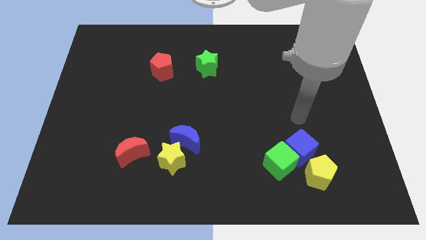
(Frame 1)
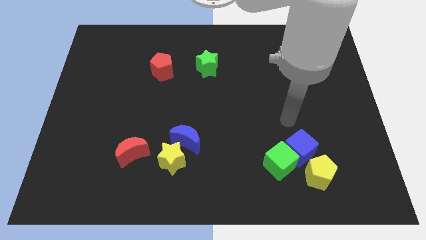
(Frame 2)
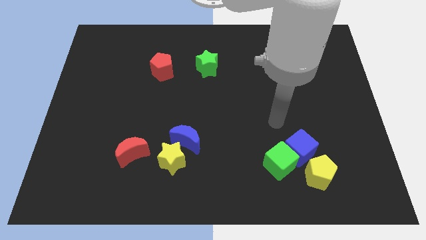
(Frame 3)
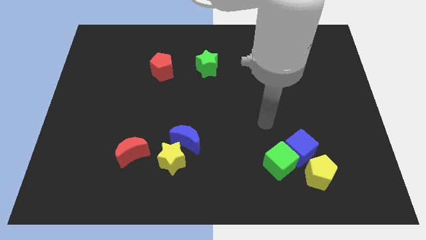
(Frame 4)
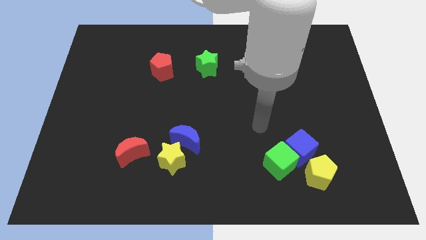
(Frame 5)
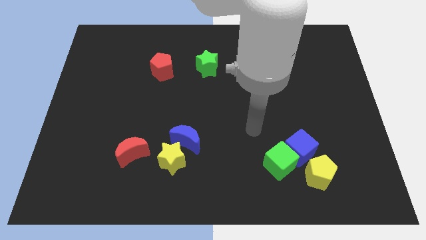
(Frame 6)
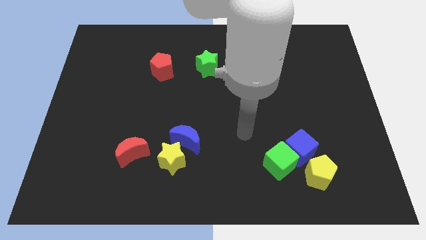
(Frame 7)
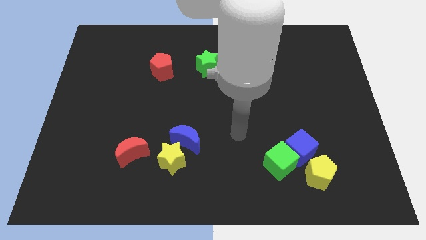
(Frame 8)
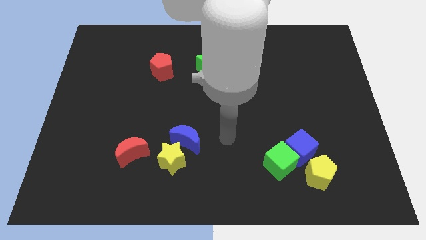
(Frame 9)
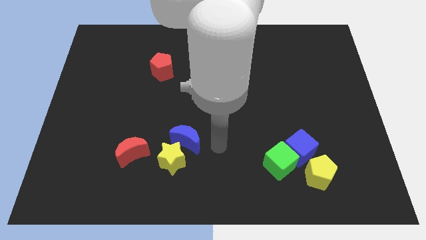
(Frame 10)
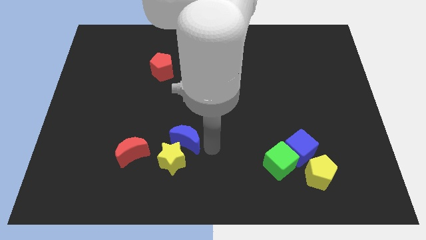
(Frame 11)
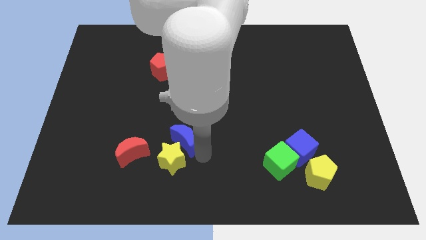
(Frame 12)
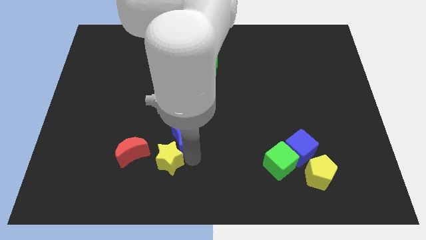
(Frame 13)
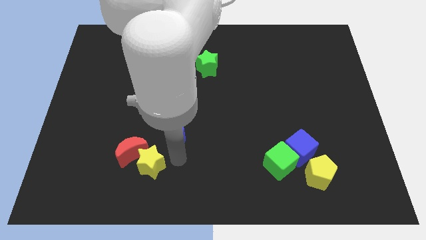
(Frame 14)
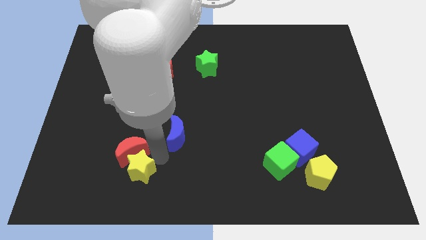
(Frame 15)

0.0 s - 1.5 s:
pull the blue moon apart from the yellow star

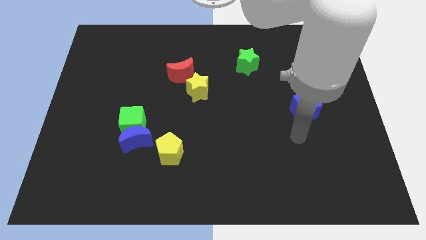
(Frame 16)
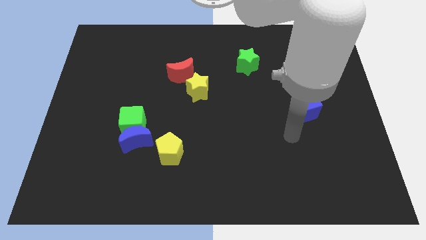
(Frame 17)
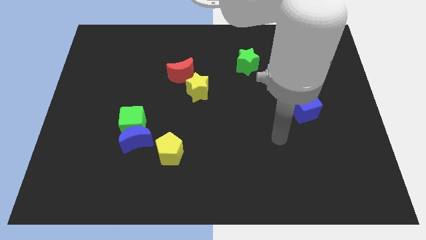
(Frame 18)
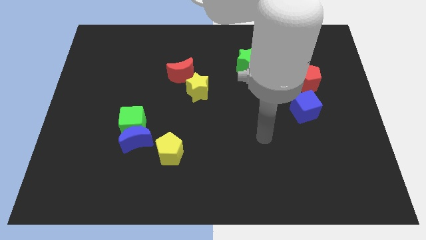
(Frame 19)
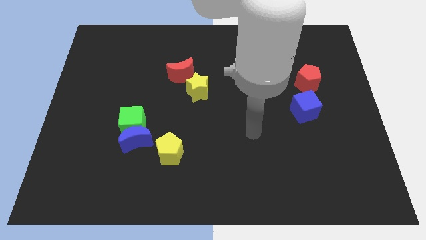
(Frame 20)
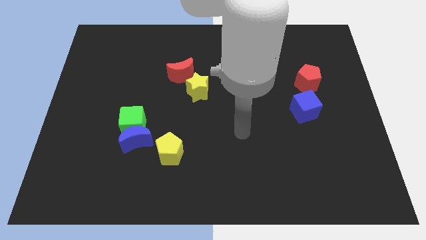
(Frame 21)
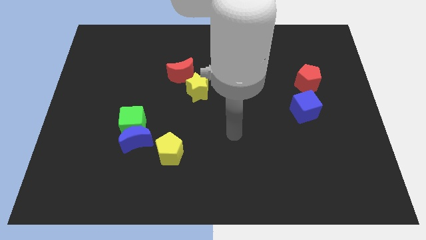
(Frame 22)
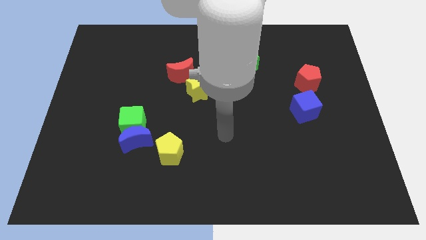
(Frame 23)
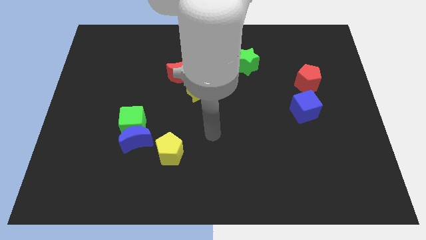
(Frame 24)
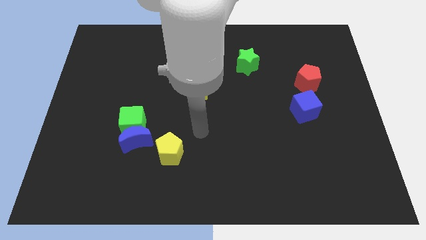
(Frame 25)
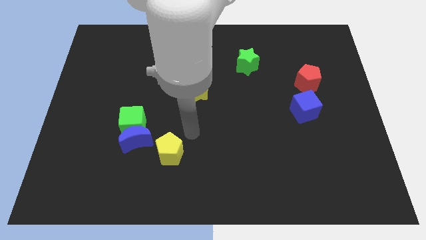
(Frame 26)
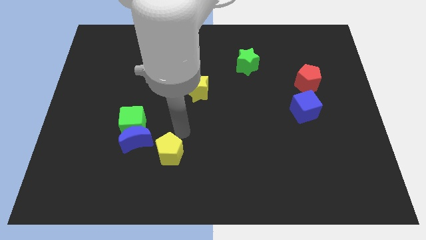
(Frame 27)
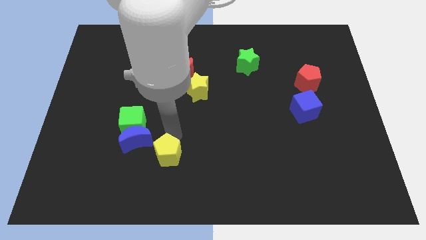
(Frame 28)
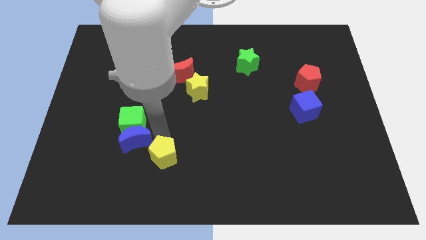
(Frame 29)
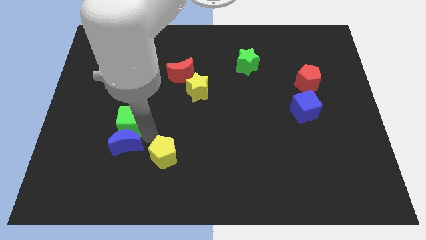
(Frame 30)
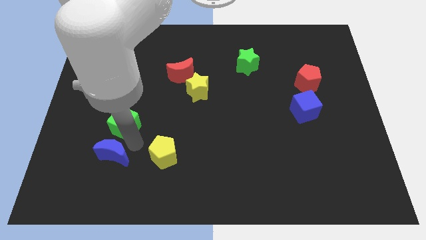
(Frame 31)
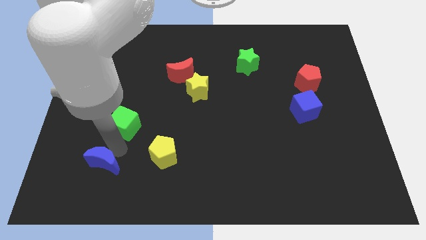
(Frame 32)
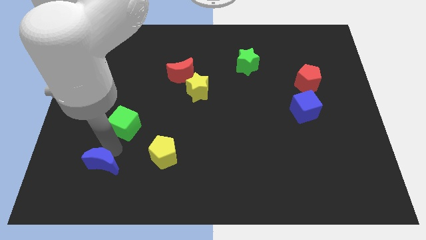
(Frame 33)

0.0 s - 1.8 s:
move the green cube away from the blue moon

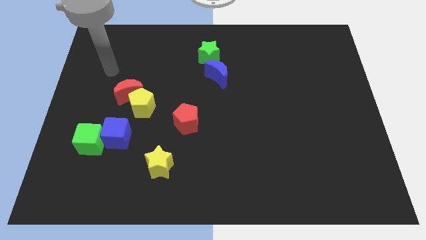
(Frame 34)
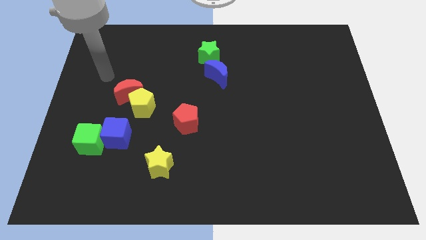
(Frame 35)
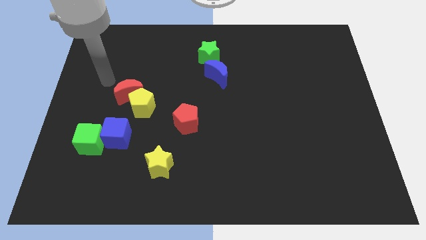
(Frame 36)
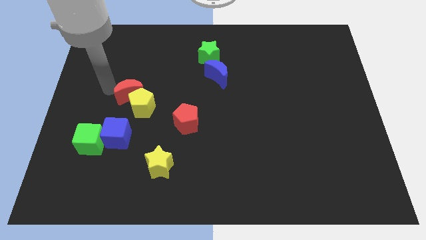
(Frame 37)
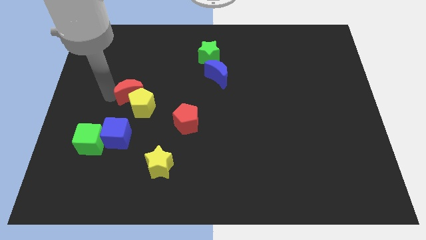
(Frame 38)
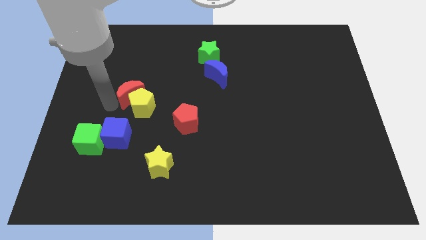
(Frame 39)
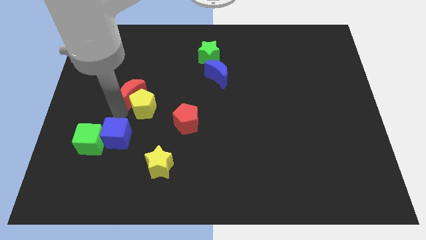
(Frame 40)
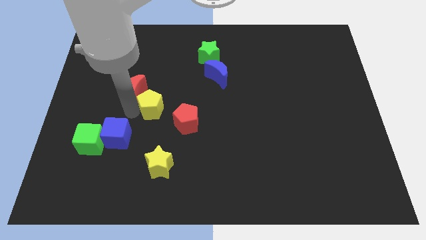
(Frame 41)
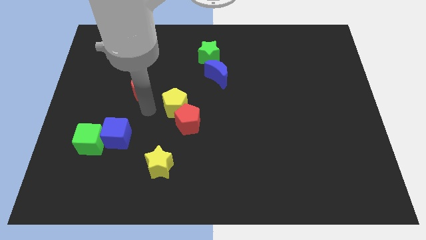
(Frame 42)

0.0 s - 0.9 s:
separate the red moon from the yellow pentagon

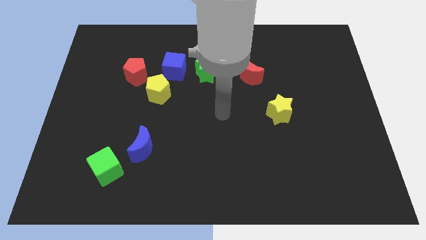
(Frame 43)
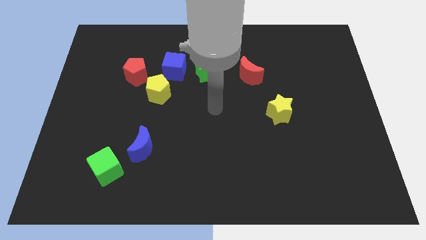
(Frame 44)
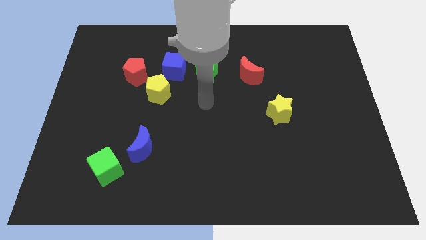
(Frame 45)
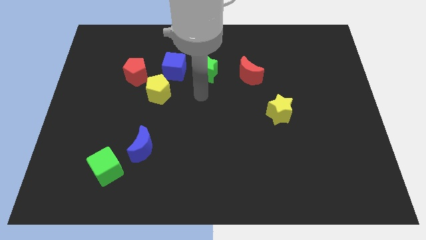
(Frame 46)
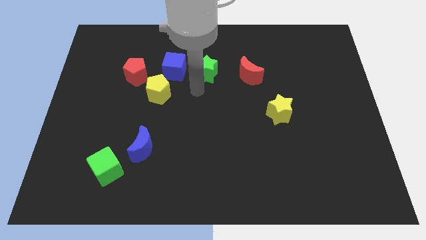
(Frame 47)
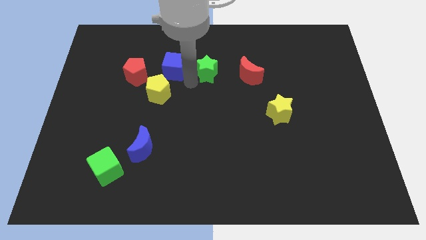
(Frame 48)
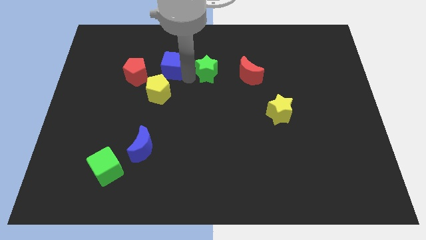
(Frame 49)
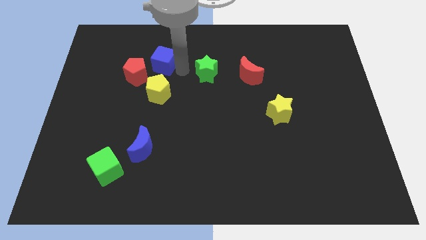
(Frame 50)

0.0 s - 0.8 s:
move the green star away from the blue cube

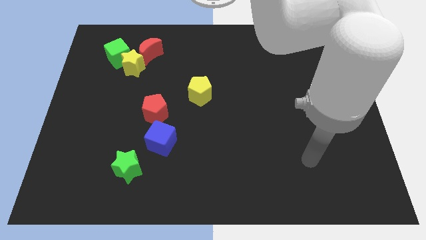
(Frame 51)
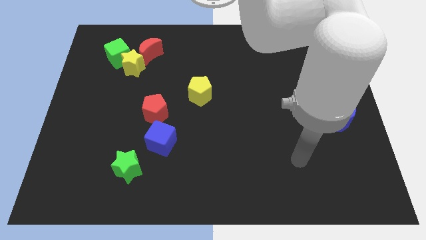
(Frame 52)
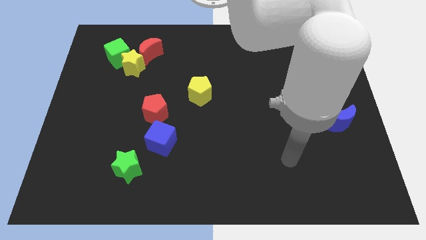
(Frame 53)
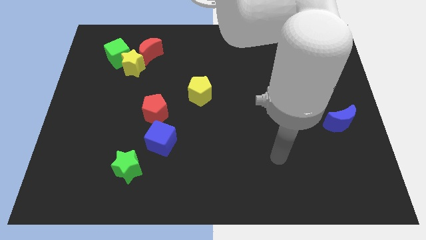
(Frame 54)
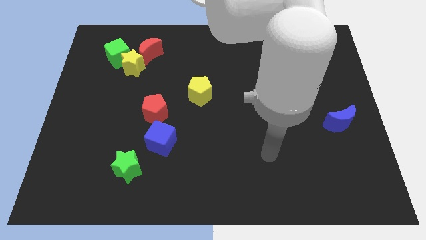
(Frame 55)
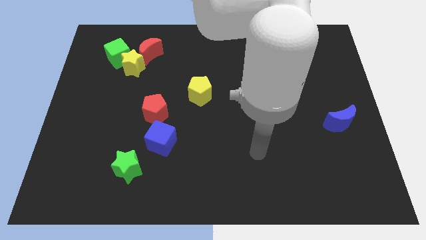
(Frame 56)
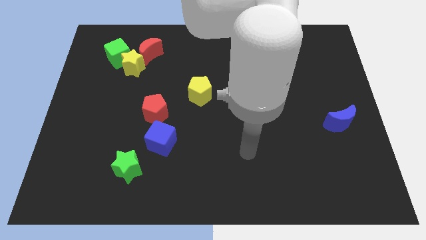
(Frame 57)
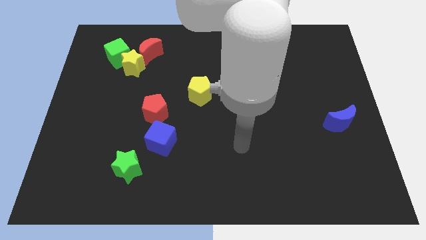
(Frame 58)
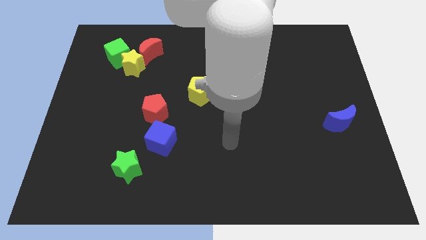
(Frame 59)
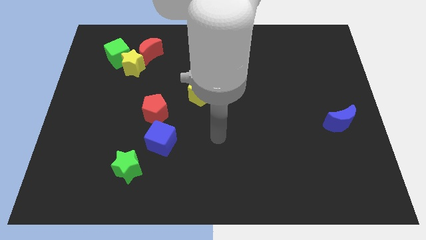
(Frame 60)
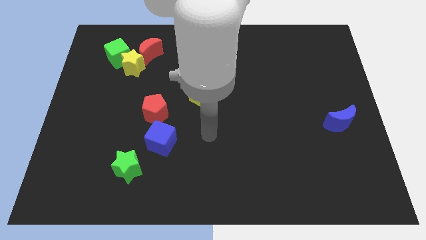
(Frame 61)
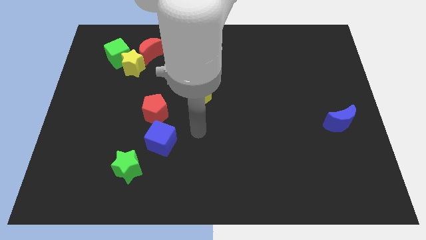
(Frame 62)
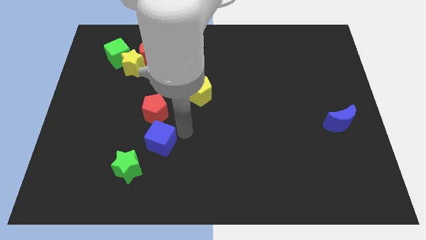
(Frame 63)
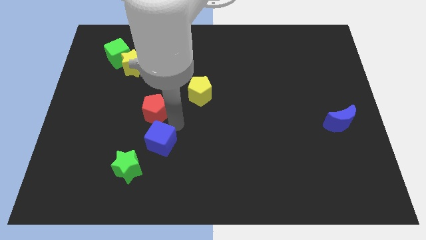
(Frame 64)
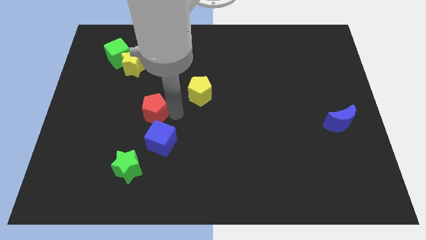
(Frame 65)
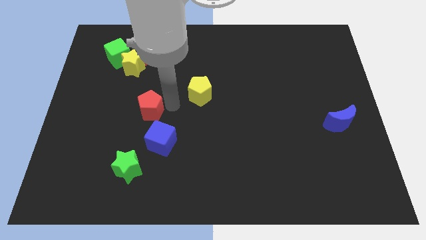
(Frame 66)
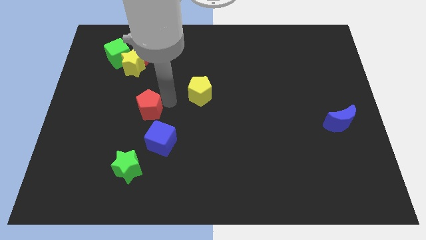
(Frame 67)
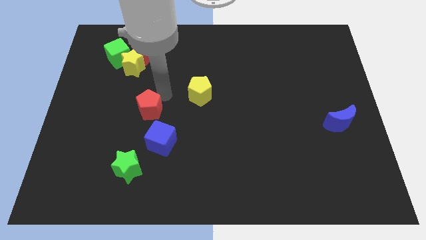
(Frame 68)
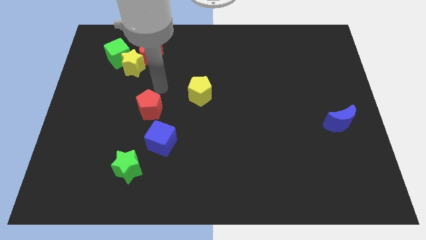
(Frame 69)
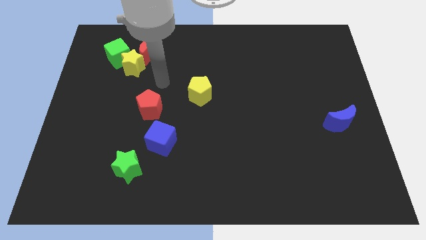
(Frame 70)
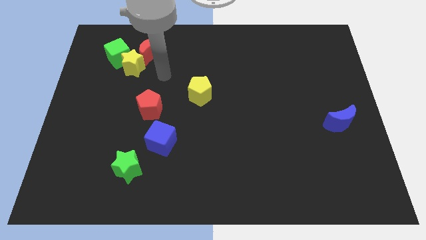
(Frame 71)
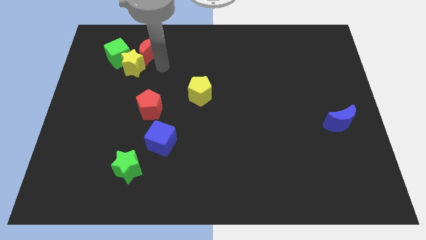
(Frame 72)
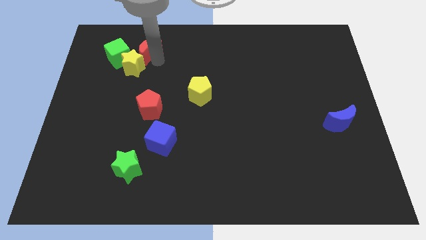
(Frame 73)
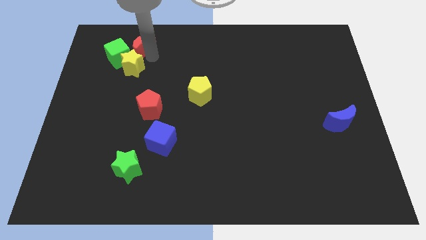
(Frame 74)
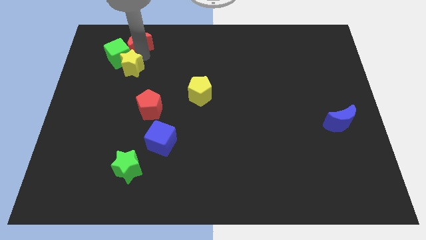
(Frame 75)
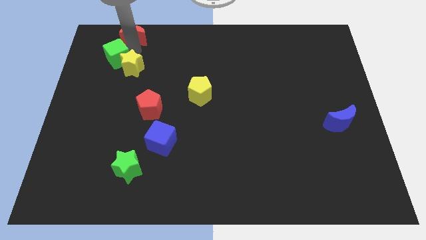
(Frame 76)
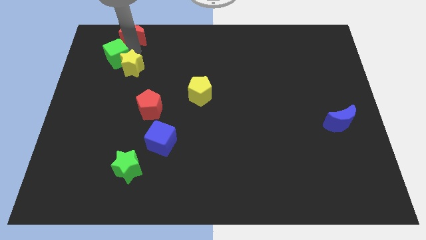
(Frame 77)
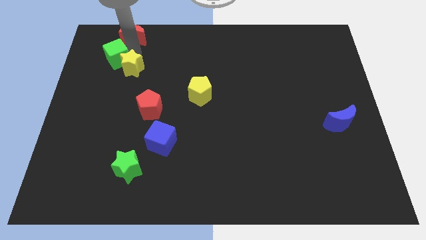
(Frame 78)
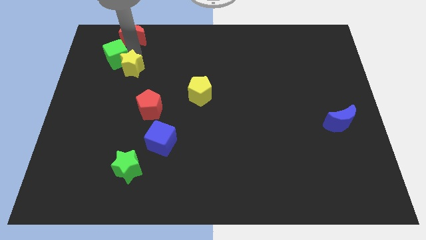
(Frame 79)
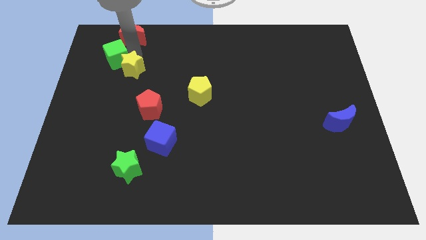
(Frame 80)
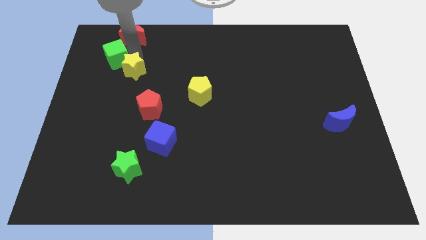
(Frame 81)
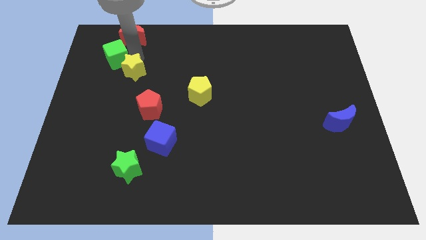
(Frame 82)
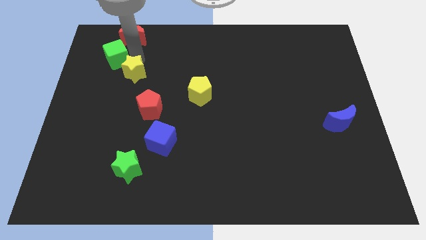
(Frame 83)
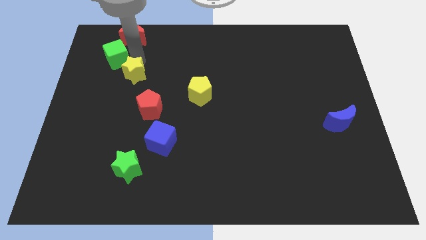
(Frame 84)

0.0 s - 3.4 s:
move the yellow star away from the green cube and red moon

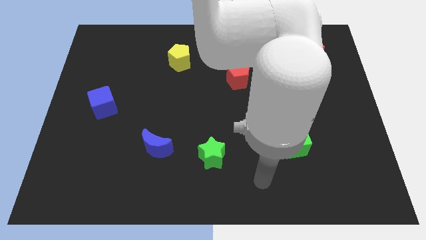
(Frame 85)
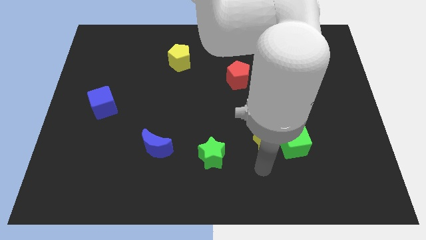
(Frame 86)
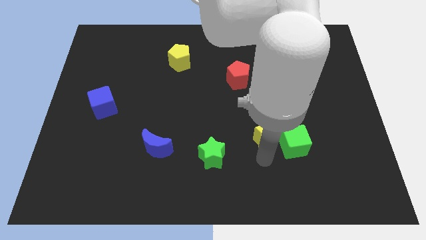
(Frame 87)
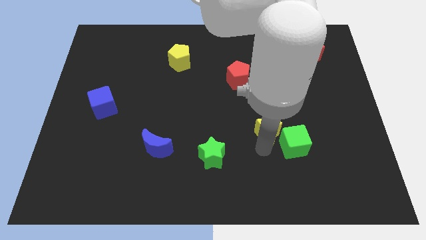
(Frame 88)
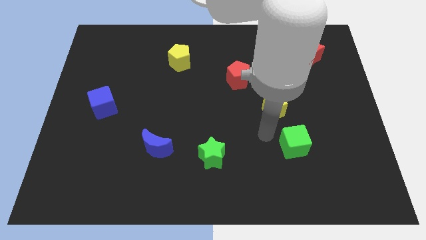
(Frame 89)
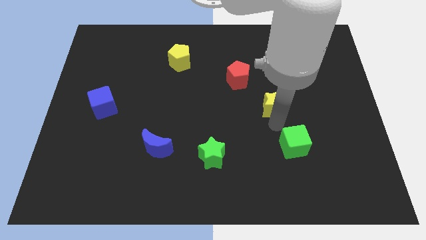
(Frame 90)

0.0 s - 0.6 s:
separate the green cube from the yellow star

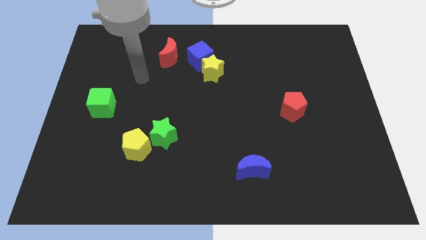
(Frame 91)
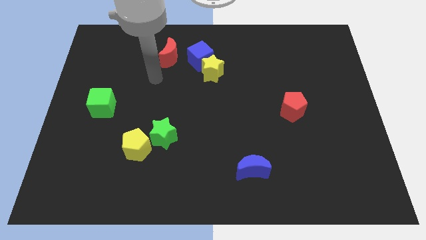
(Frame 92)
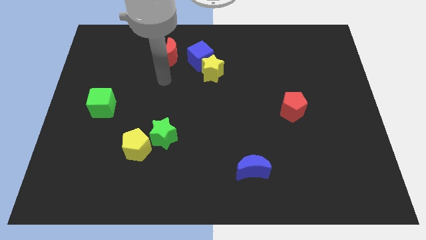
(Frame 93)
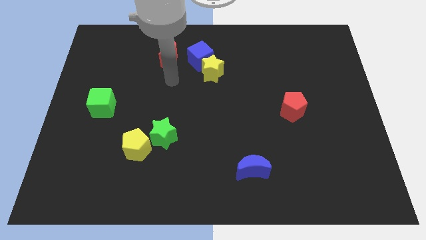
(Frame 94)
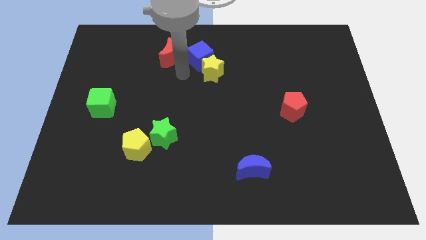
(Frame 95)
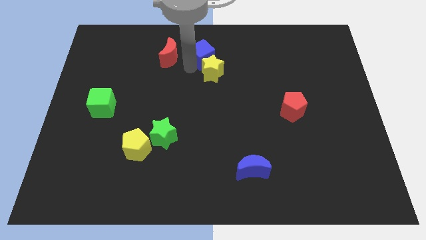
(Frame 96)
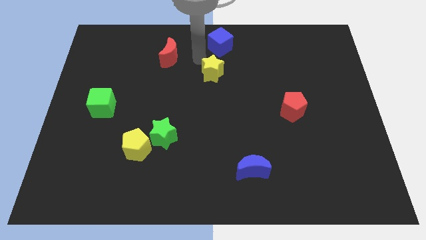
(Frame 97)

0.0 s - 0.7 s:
move the yellow star away from the blue cube
